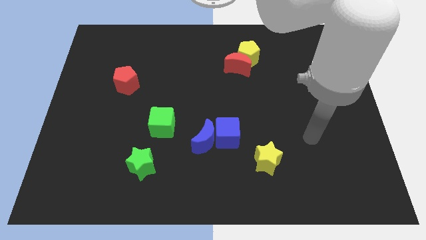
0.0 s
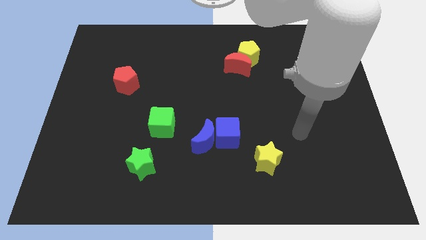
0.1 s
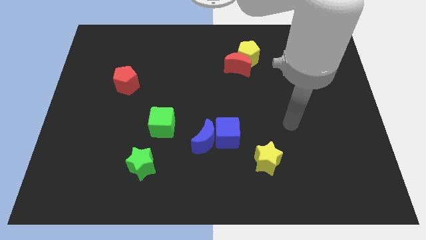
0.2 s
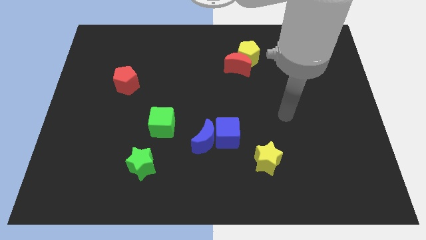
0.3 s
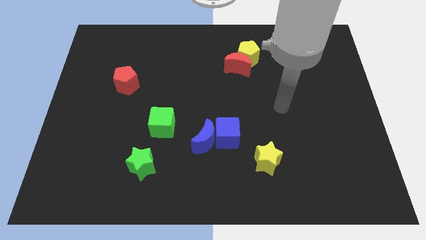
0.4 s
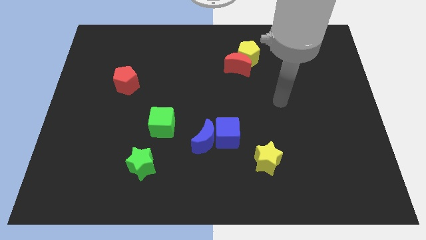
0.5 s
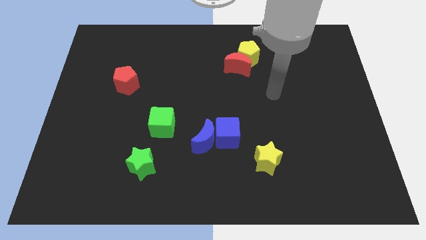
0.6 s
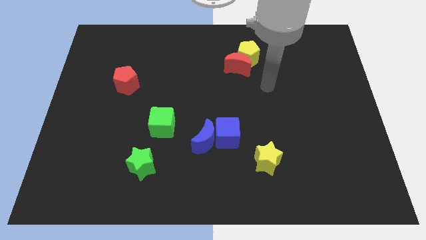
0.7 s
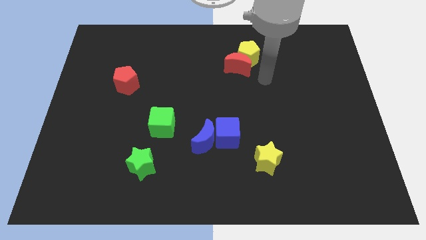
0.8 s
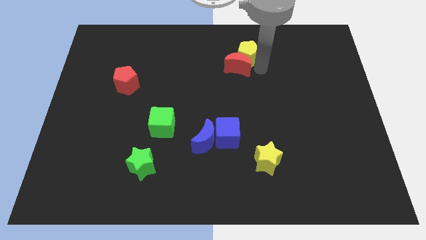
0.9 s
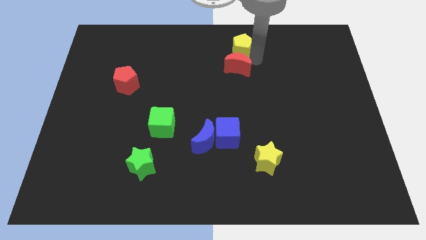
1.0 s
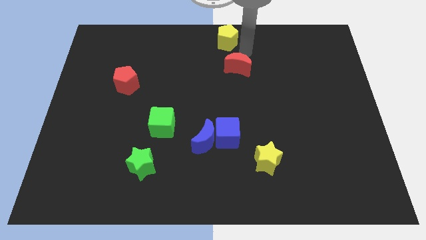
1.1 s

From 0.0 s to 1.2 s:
pull the red moon apart from the yellow pentagon

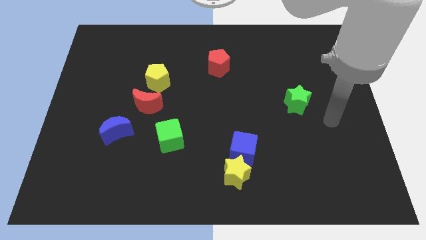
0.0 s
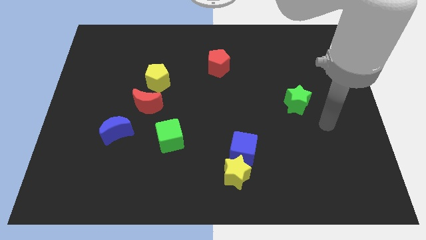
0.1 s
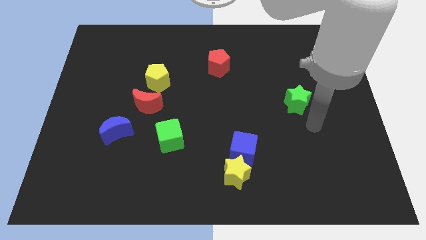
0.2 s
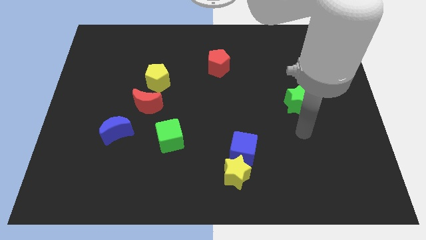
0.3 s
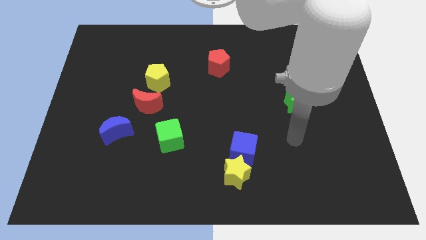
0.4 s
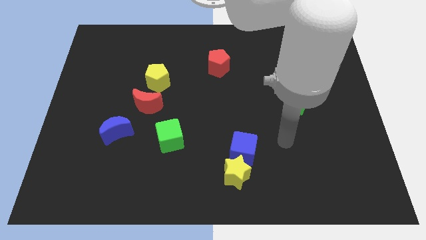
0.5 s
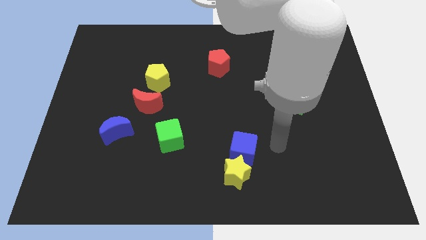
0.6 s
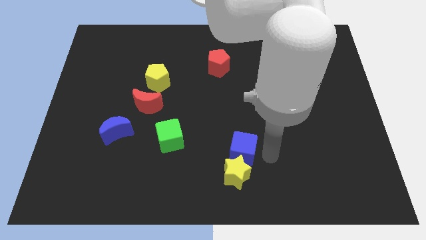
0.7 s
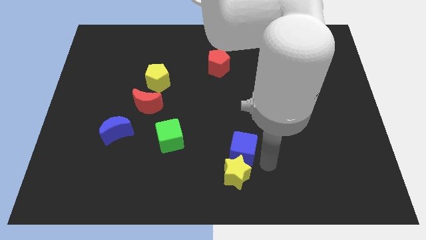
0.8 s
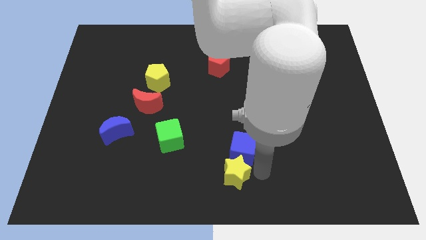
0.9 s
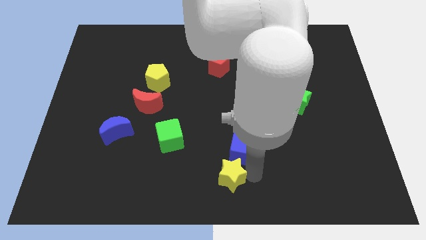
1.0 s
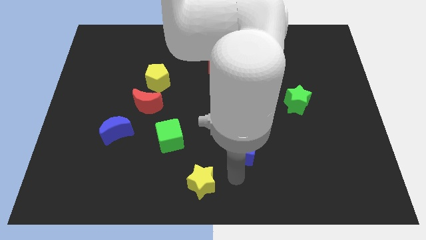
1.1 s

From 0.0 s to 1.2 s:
pull the blue cube apart from the yellow star

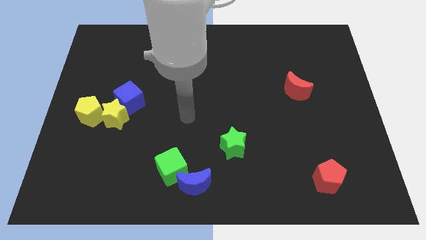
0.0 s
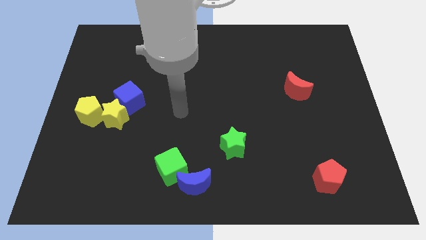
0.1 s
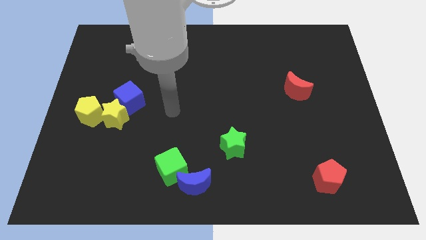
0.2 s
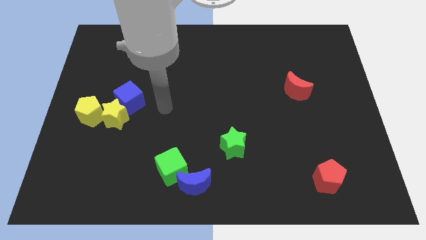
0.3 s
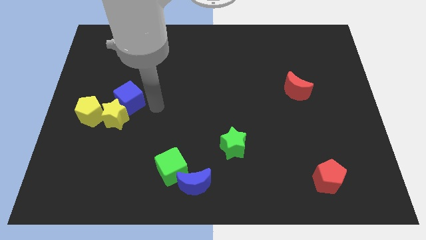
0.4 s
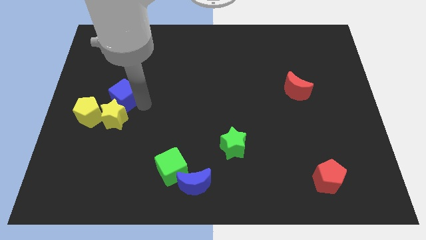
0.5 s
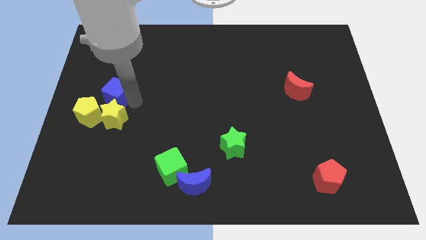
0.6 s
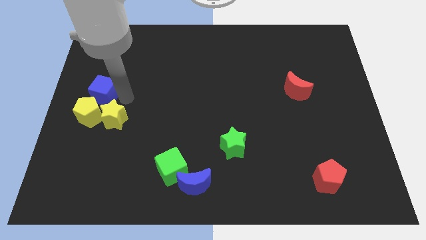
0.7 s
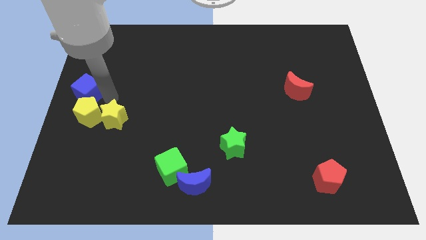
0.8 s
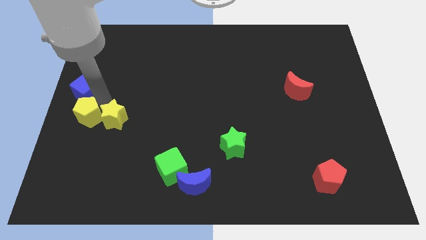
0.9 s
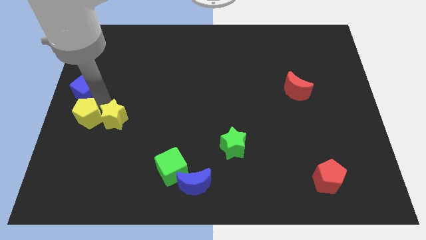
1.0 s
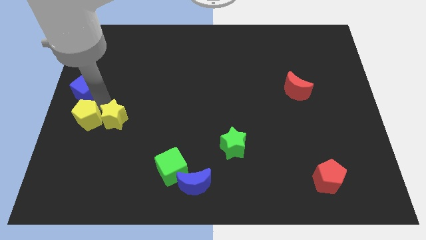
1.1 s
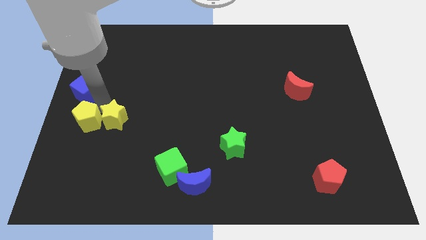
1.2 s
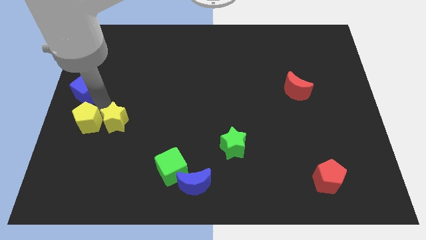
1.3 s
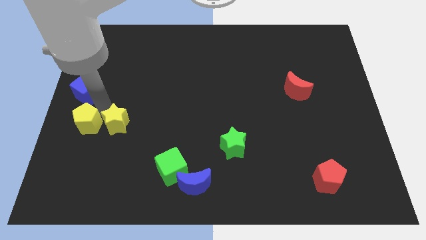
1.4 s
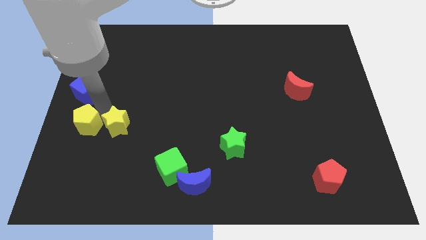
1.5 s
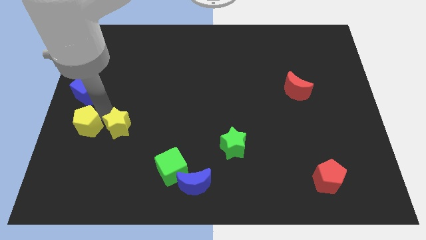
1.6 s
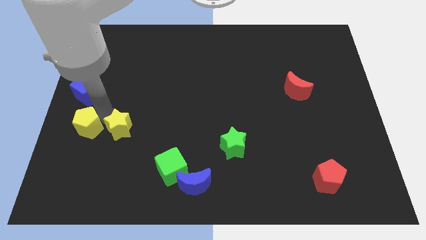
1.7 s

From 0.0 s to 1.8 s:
move the yellow star away from the blue cube and yellow pentagon

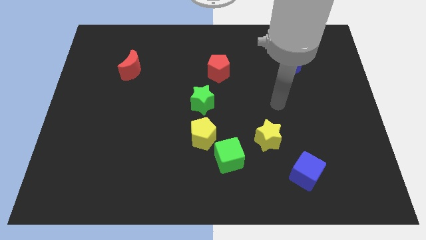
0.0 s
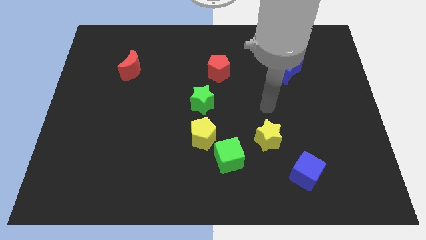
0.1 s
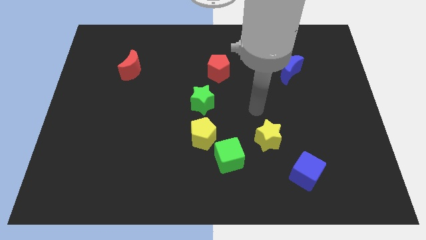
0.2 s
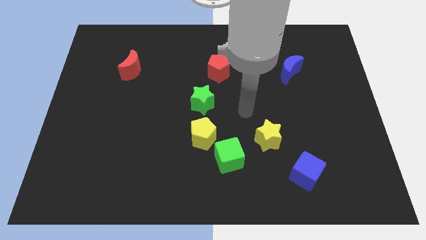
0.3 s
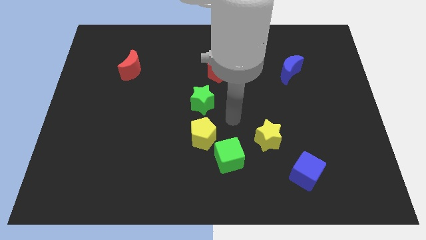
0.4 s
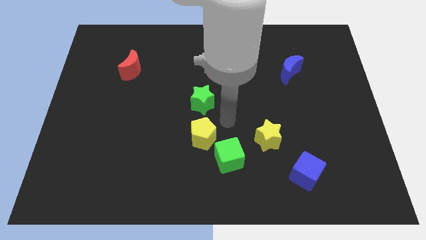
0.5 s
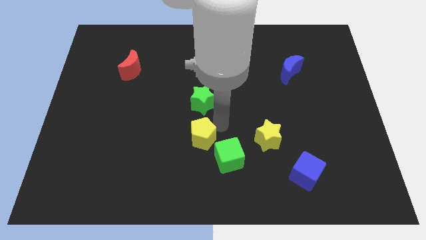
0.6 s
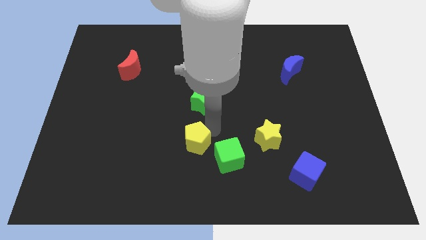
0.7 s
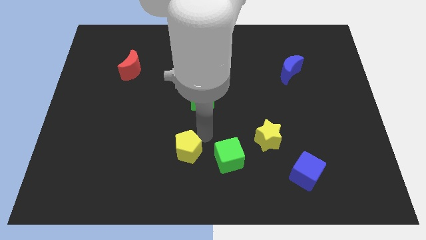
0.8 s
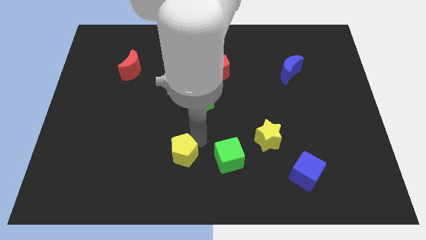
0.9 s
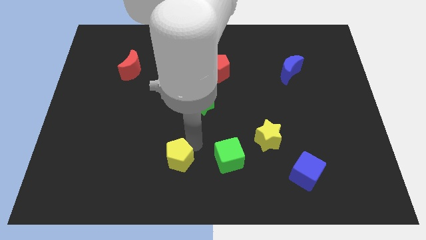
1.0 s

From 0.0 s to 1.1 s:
separate the yellow pentagon from the green cube and green star

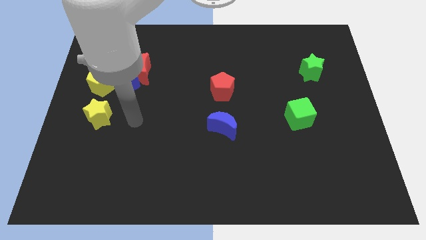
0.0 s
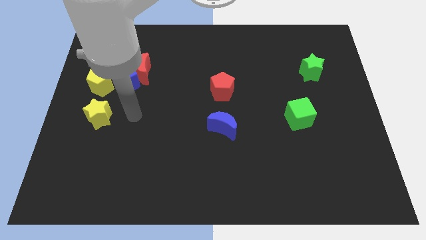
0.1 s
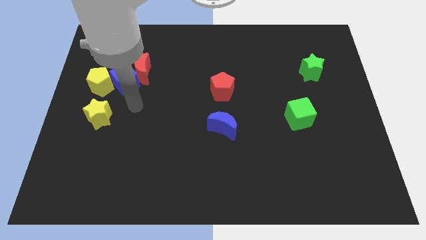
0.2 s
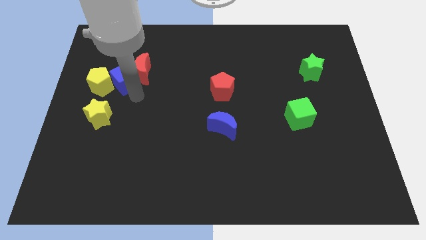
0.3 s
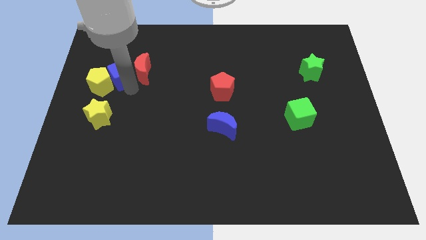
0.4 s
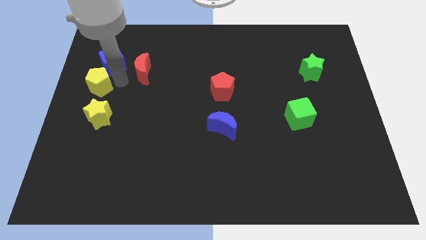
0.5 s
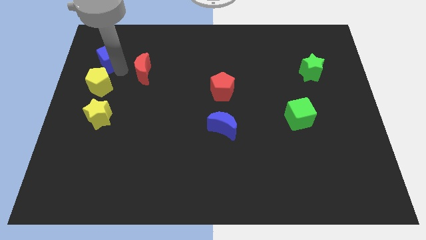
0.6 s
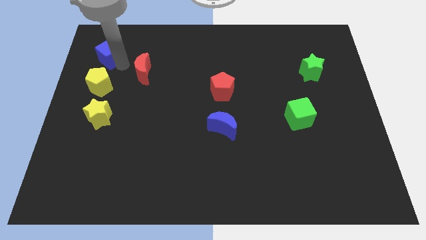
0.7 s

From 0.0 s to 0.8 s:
move the red moon away from the blue cube

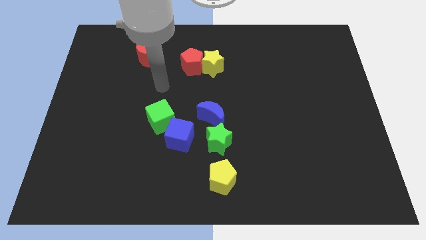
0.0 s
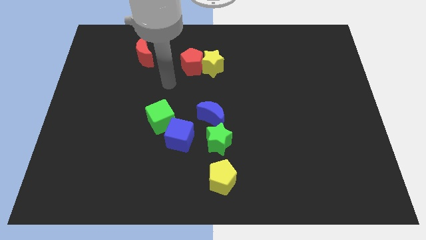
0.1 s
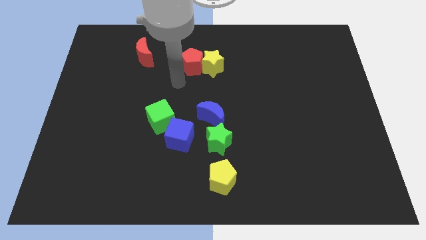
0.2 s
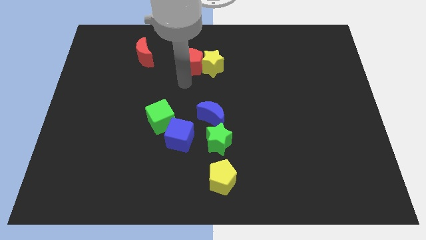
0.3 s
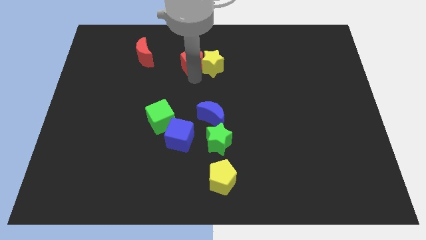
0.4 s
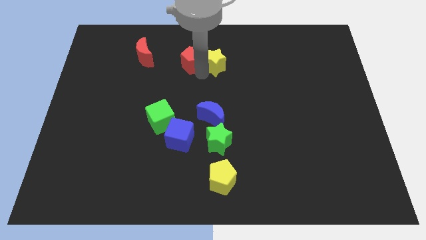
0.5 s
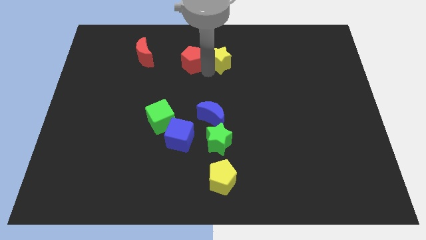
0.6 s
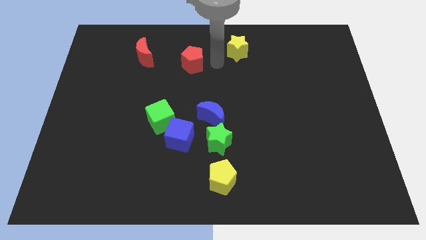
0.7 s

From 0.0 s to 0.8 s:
pull the red pentagon apart from the yellow star

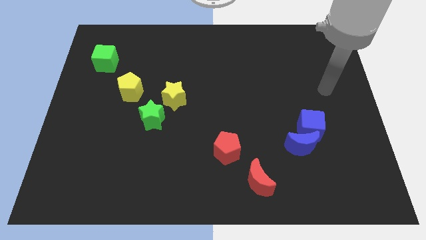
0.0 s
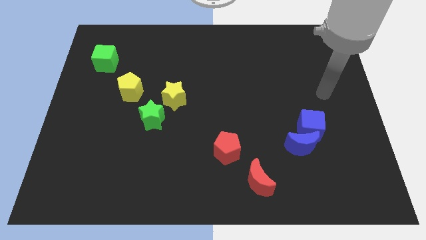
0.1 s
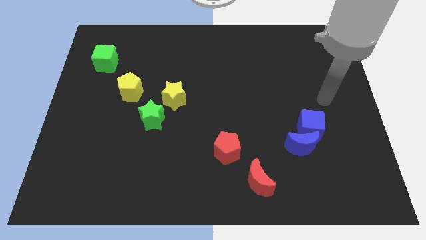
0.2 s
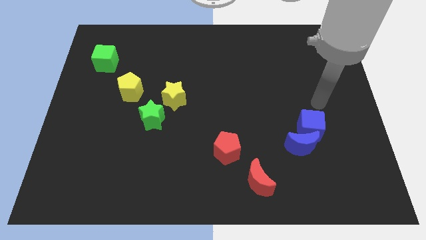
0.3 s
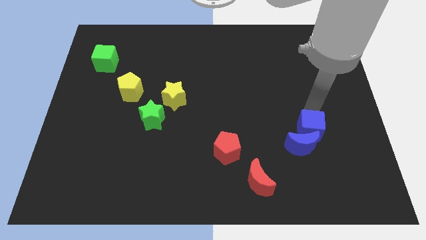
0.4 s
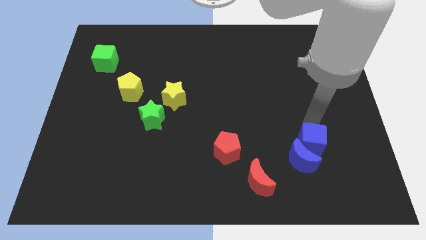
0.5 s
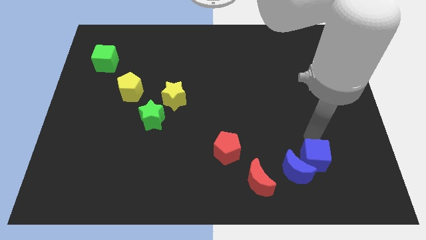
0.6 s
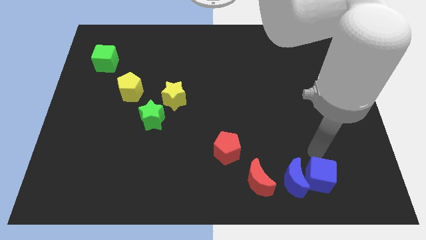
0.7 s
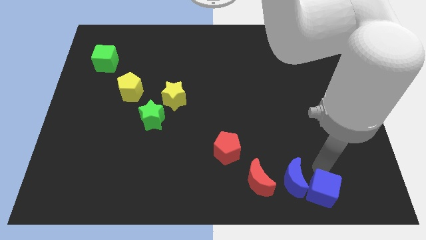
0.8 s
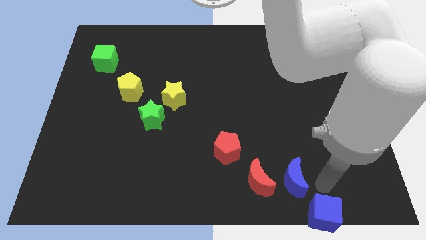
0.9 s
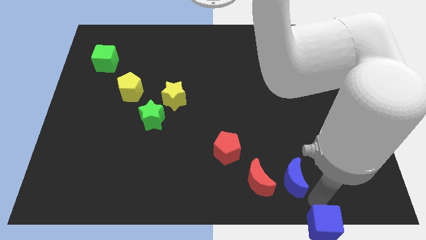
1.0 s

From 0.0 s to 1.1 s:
move the blue moon away from the blue cube

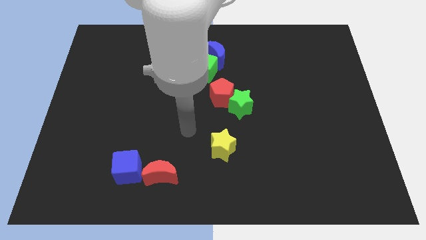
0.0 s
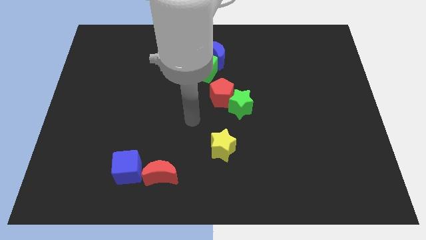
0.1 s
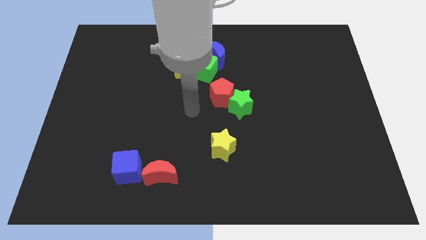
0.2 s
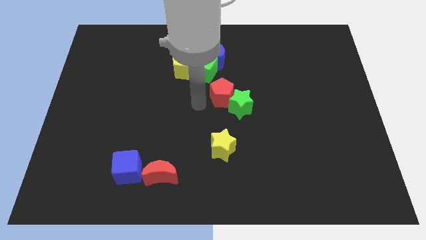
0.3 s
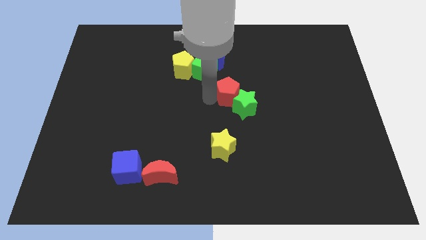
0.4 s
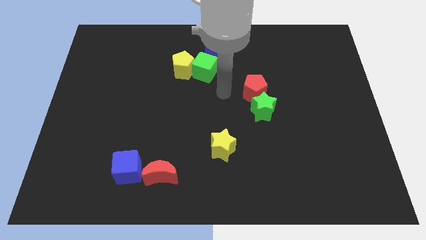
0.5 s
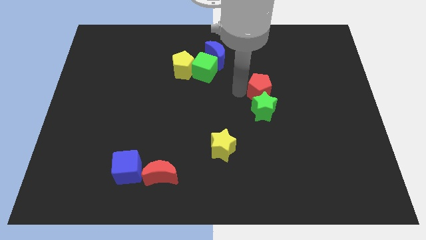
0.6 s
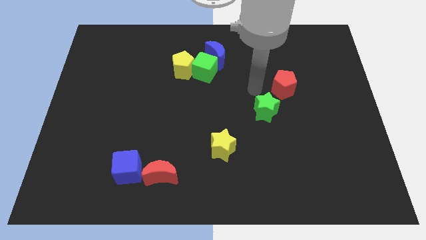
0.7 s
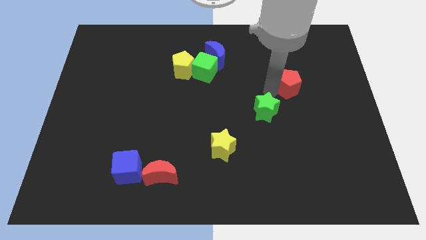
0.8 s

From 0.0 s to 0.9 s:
pull the green star apart from the red pentagon

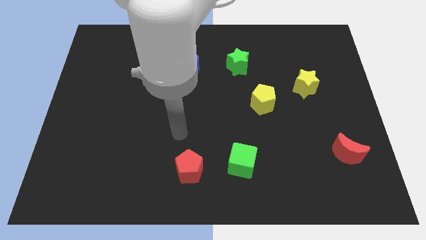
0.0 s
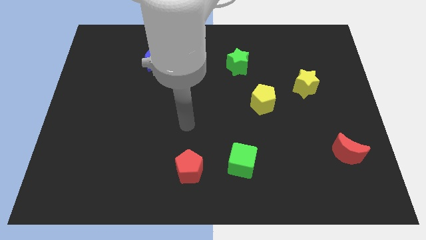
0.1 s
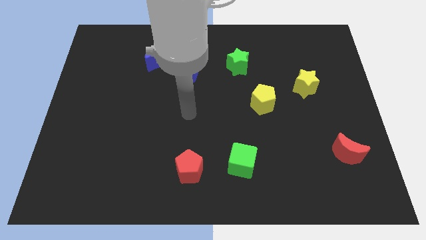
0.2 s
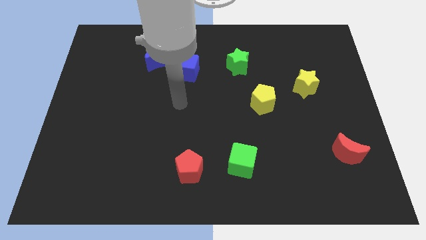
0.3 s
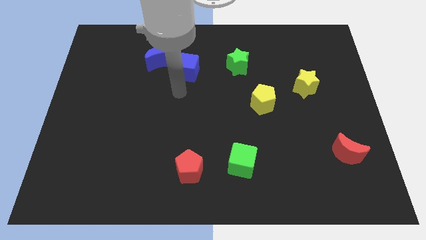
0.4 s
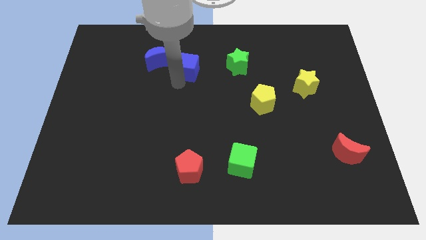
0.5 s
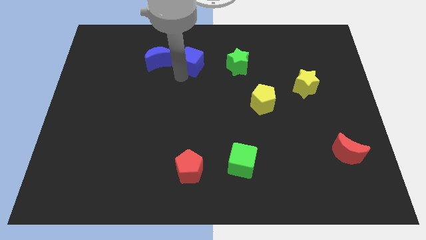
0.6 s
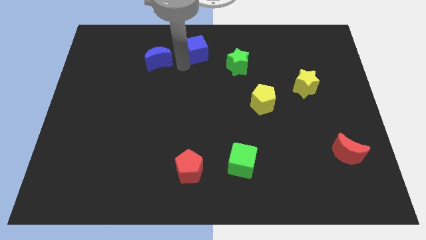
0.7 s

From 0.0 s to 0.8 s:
separate the blue moon from the blue cube
